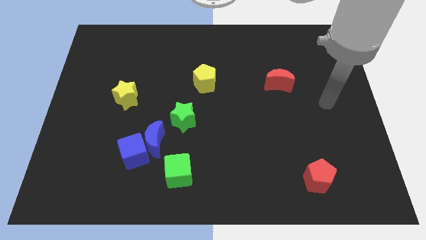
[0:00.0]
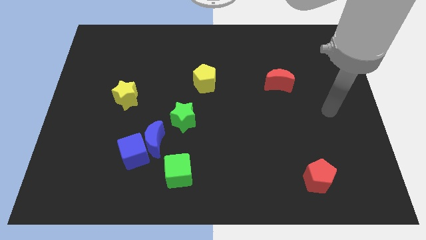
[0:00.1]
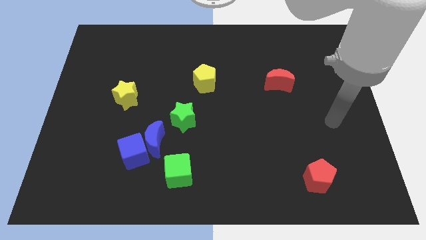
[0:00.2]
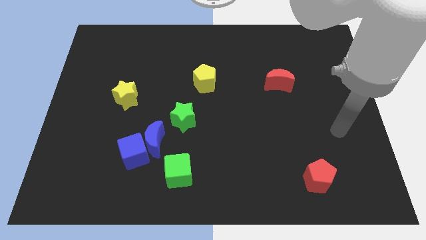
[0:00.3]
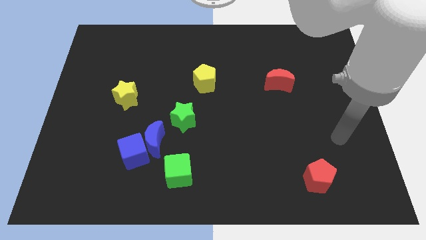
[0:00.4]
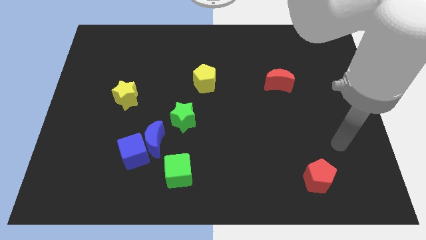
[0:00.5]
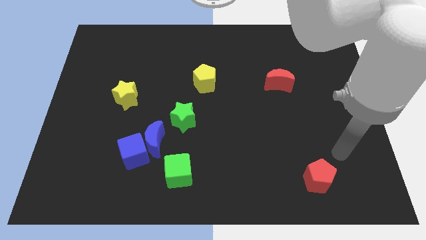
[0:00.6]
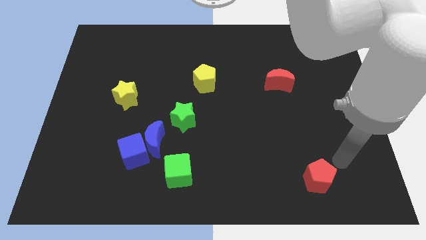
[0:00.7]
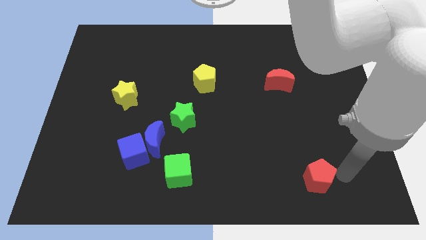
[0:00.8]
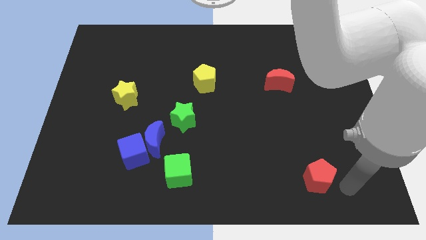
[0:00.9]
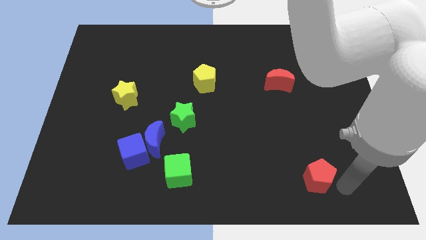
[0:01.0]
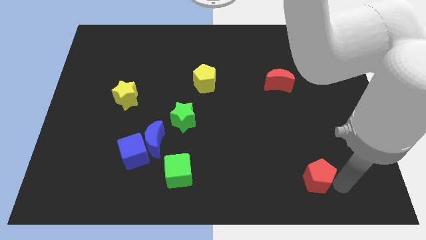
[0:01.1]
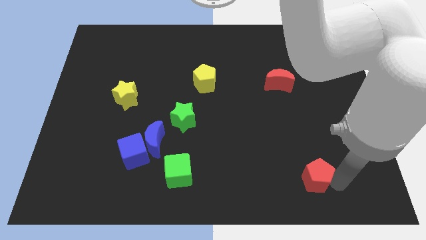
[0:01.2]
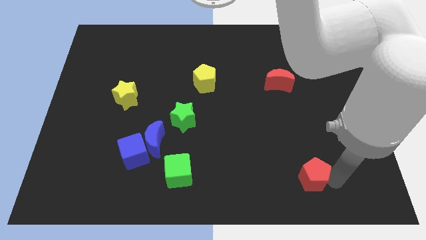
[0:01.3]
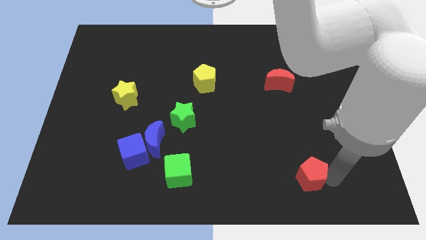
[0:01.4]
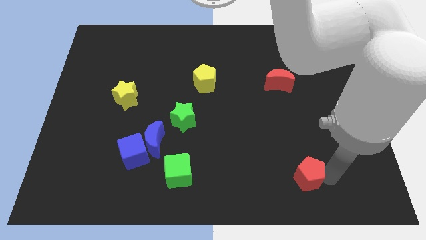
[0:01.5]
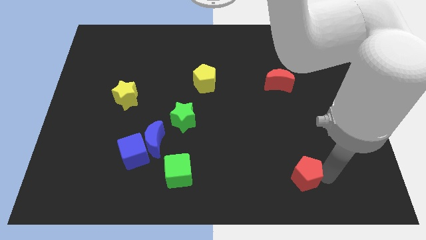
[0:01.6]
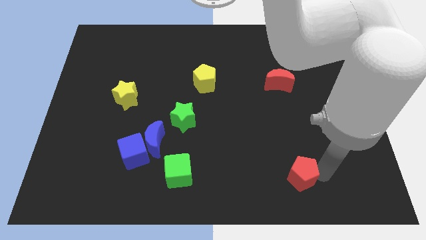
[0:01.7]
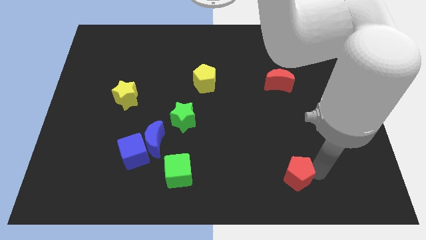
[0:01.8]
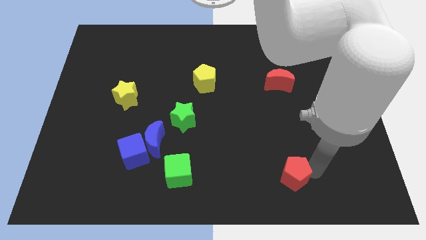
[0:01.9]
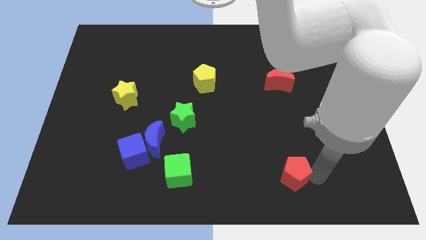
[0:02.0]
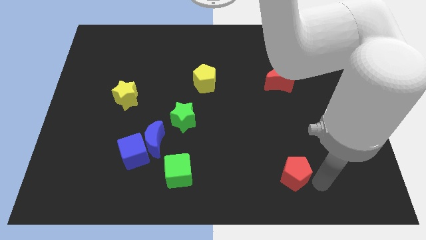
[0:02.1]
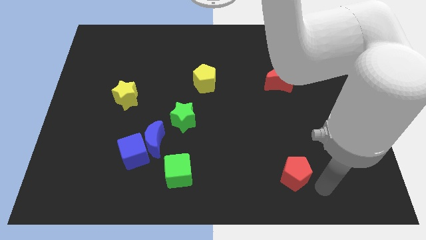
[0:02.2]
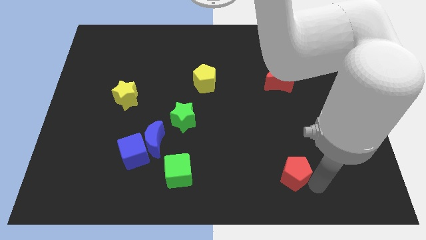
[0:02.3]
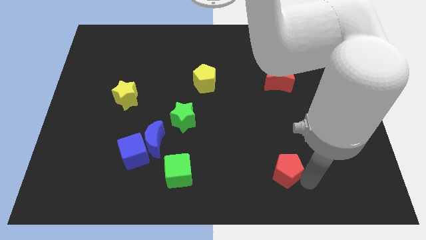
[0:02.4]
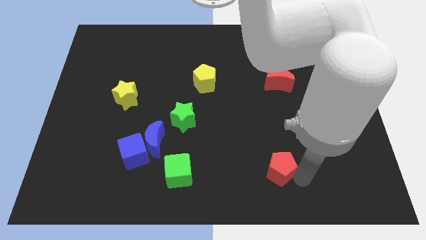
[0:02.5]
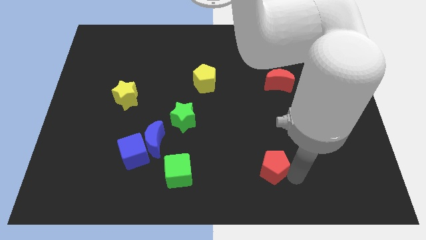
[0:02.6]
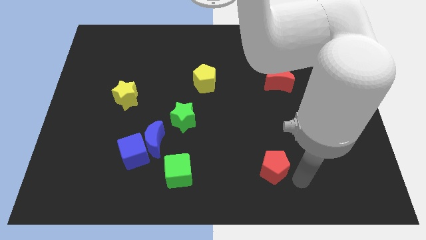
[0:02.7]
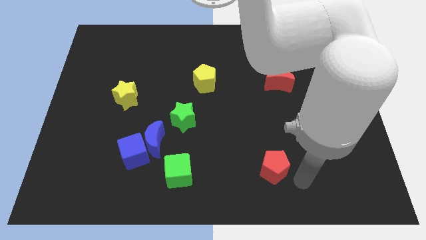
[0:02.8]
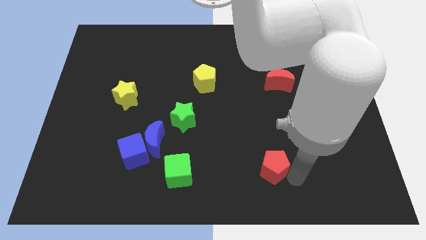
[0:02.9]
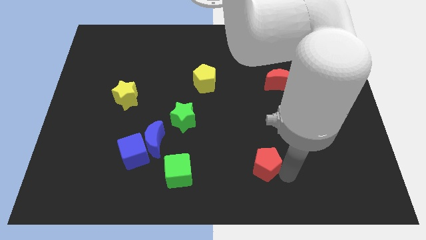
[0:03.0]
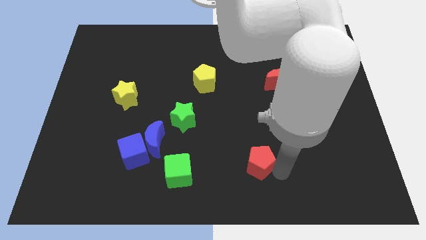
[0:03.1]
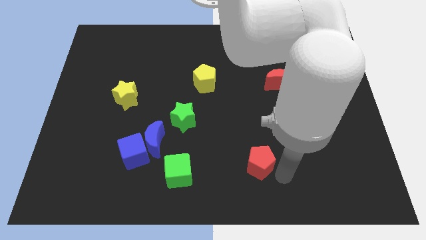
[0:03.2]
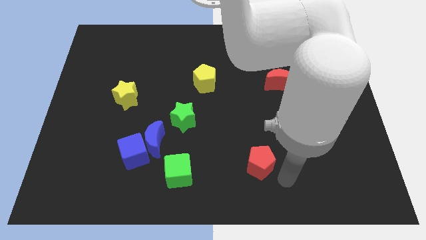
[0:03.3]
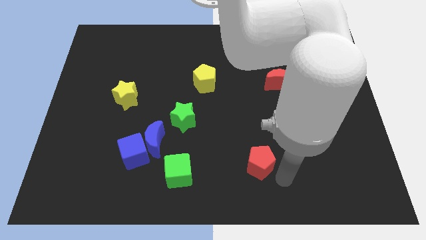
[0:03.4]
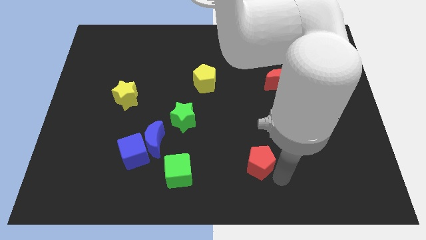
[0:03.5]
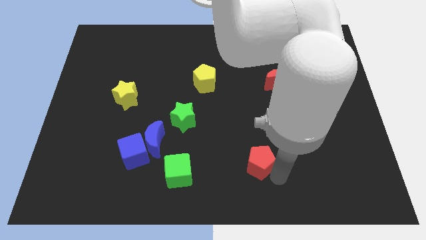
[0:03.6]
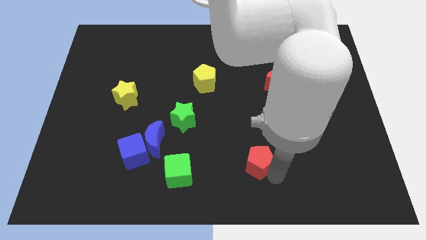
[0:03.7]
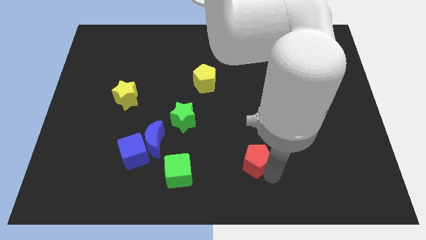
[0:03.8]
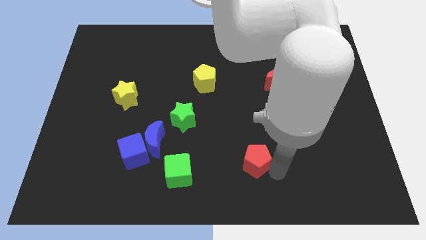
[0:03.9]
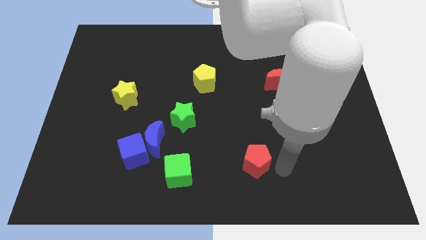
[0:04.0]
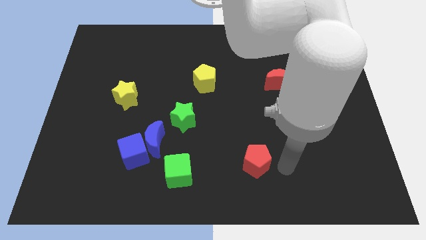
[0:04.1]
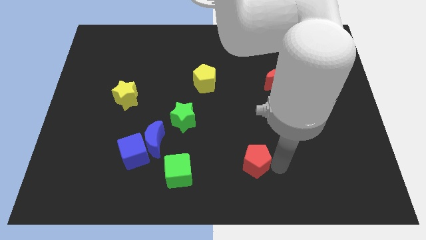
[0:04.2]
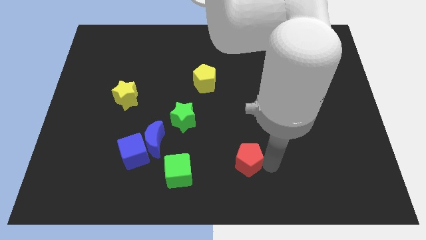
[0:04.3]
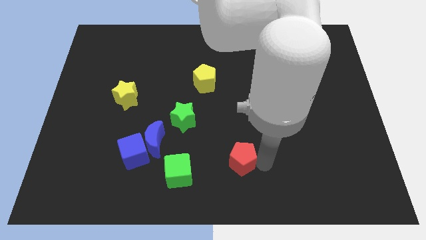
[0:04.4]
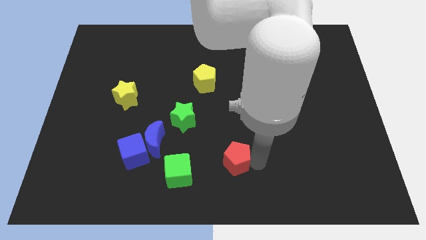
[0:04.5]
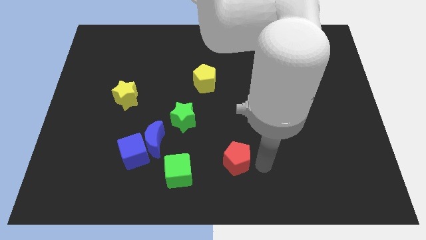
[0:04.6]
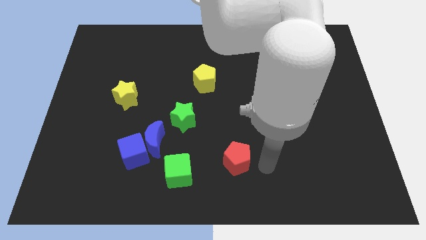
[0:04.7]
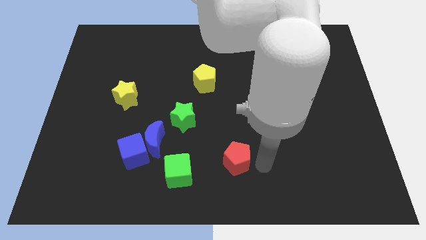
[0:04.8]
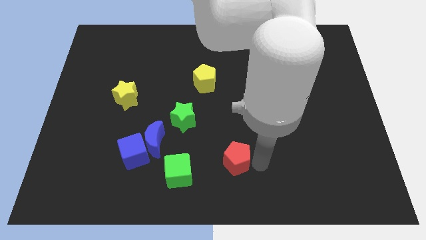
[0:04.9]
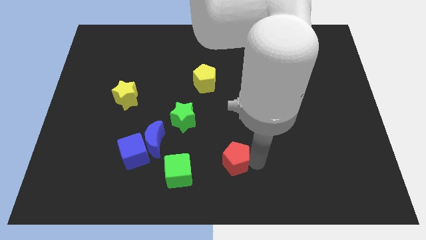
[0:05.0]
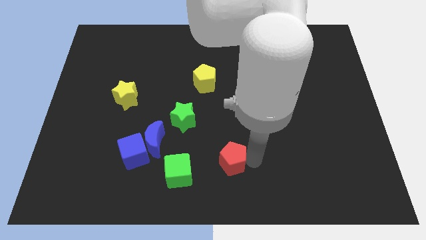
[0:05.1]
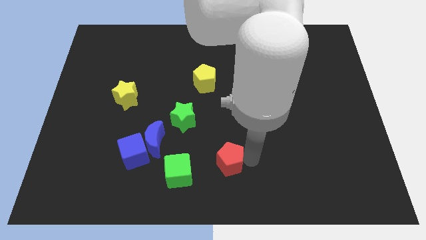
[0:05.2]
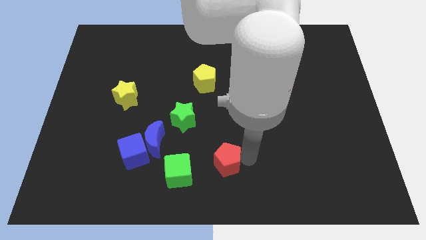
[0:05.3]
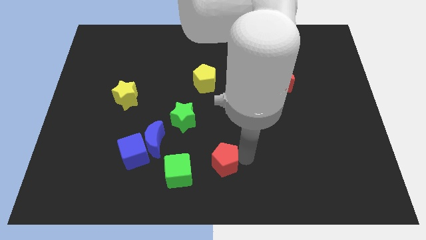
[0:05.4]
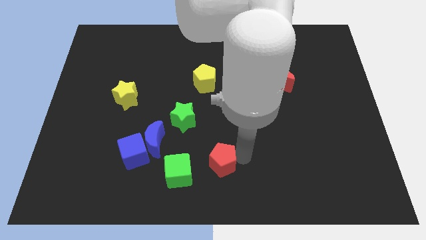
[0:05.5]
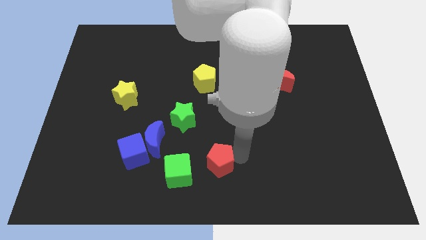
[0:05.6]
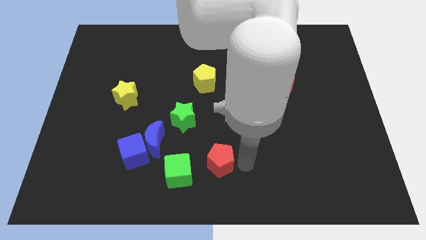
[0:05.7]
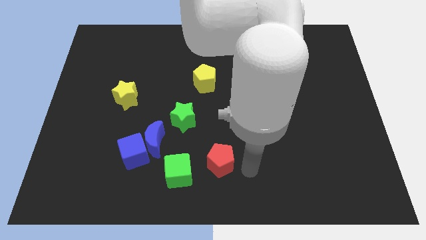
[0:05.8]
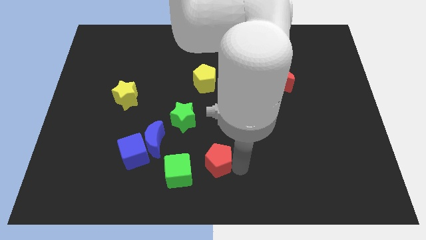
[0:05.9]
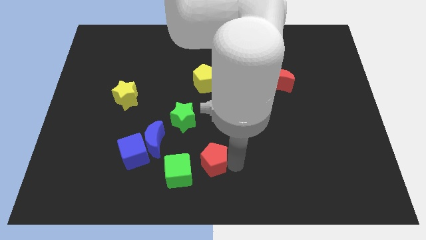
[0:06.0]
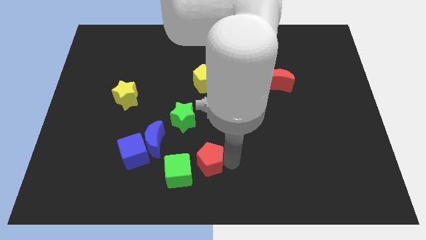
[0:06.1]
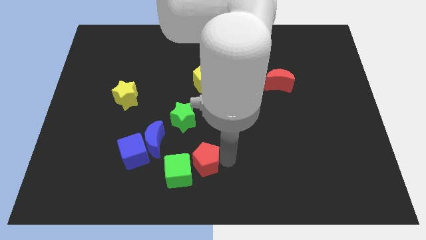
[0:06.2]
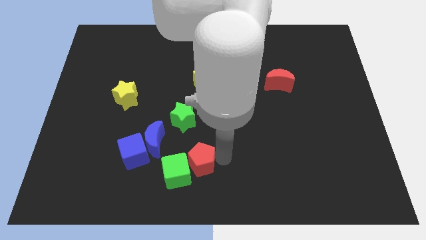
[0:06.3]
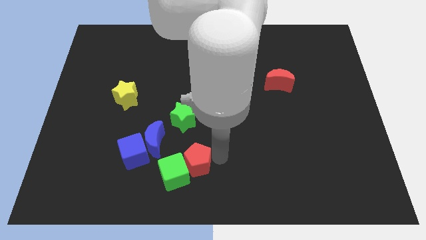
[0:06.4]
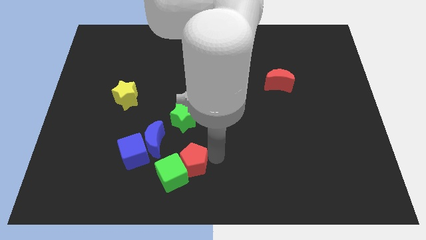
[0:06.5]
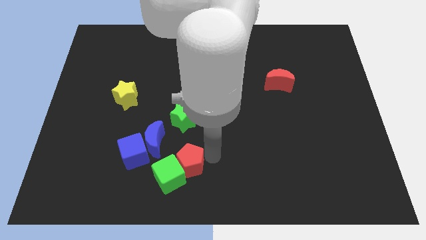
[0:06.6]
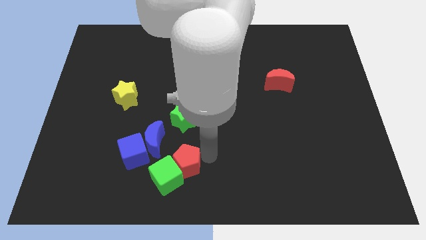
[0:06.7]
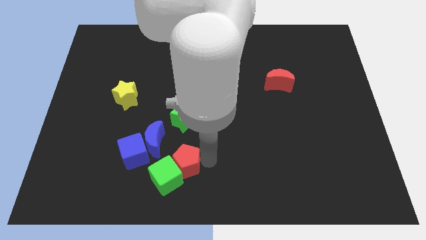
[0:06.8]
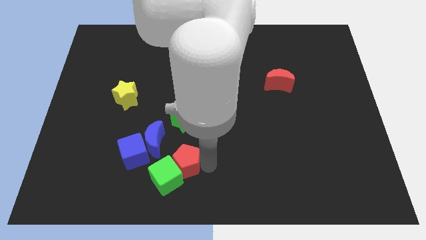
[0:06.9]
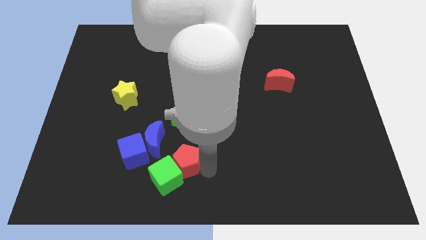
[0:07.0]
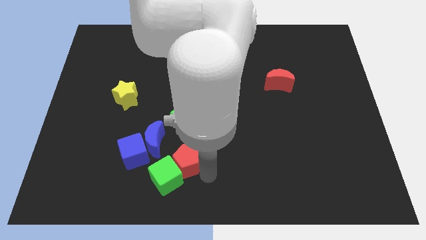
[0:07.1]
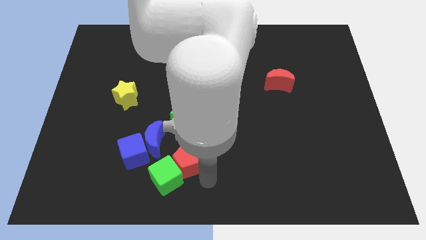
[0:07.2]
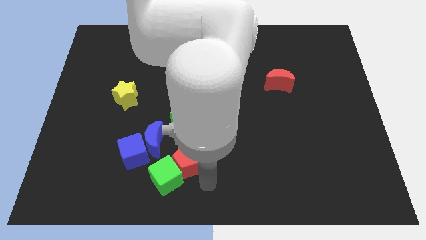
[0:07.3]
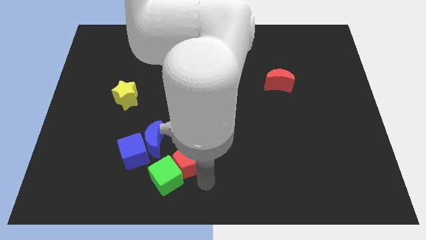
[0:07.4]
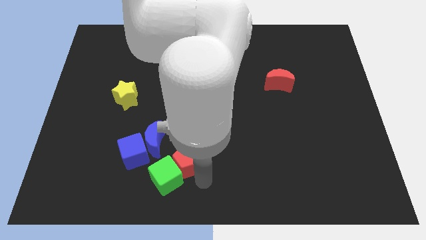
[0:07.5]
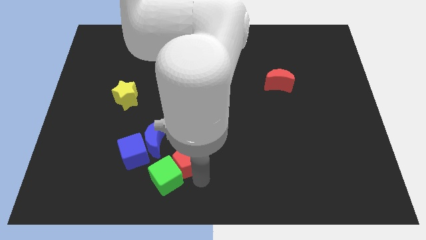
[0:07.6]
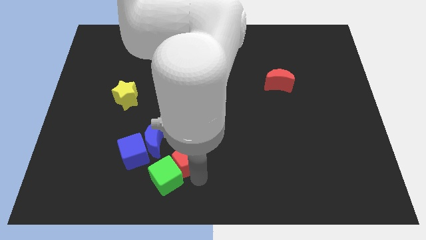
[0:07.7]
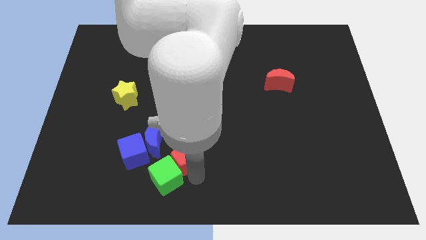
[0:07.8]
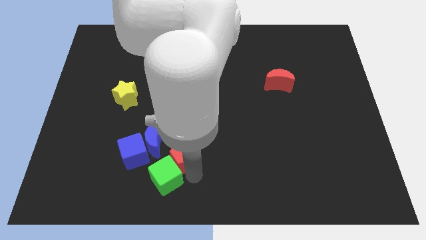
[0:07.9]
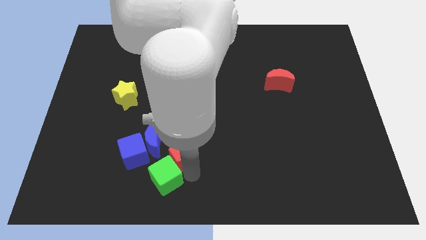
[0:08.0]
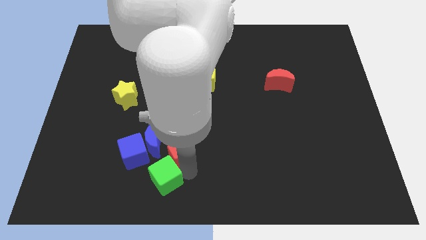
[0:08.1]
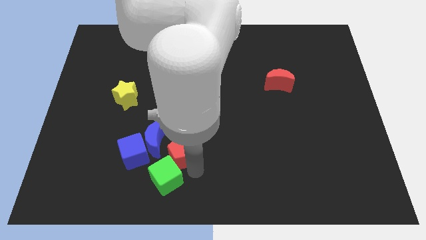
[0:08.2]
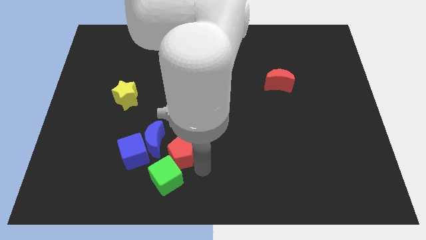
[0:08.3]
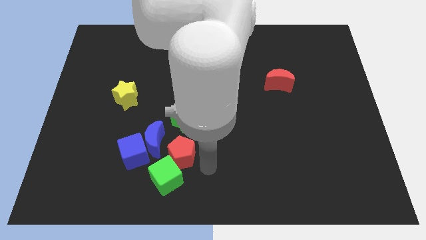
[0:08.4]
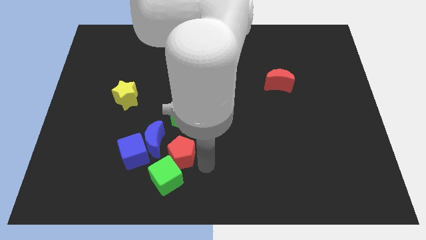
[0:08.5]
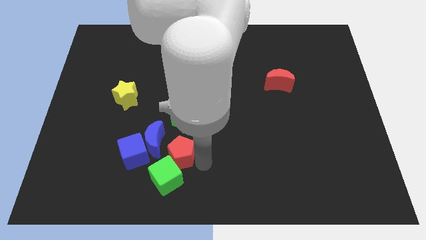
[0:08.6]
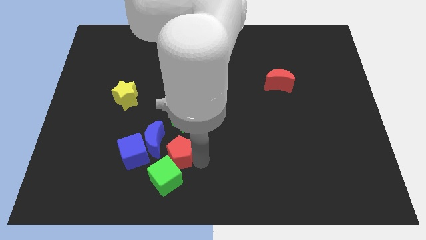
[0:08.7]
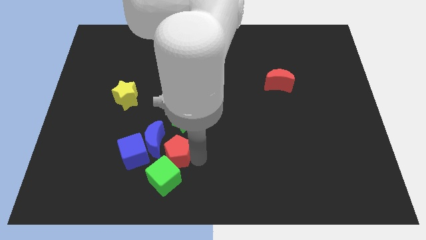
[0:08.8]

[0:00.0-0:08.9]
put the red pentagon close to the blue moon
